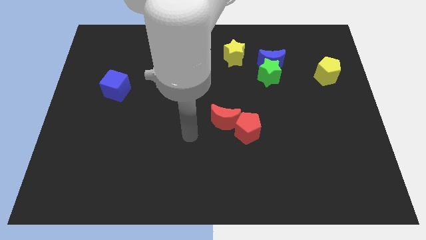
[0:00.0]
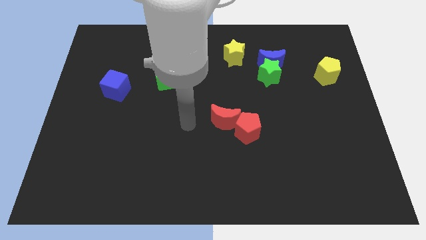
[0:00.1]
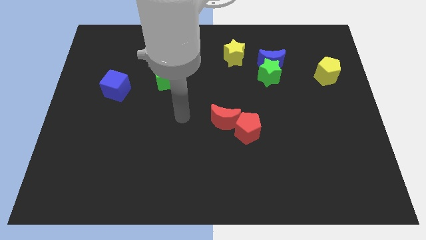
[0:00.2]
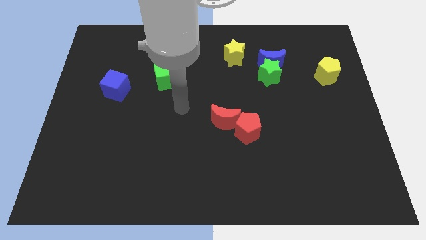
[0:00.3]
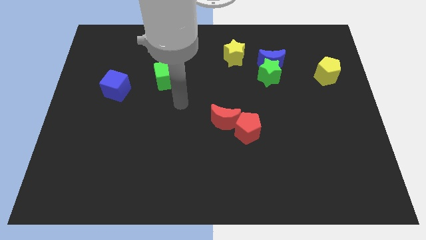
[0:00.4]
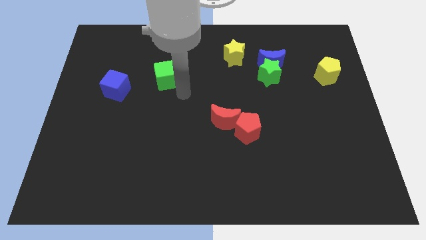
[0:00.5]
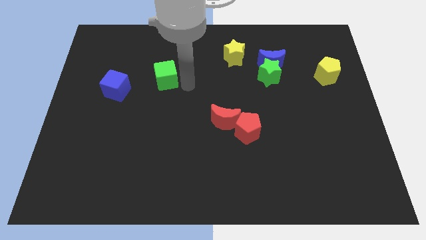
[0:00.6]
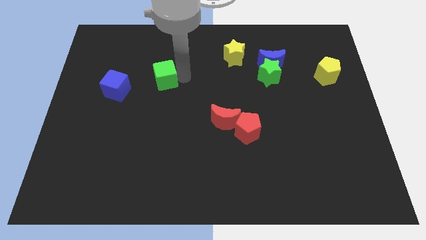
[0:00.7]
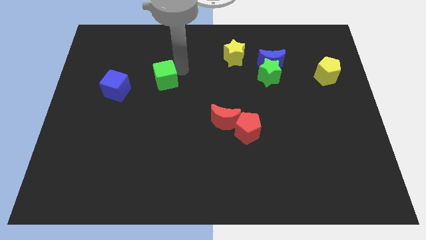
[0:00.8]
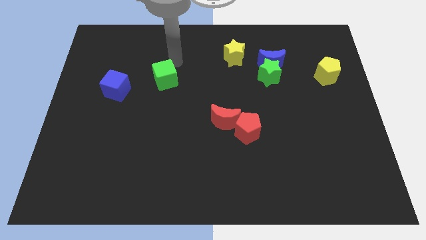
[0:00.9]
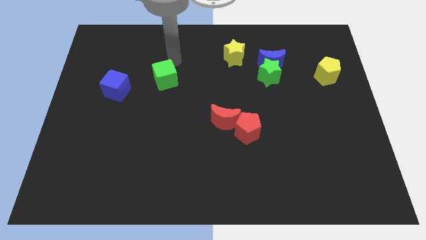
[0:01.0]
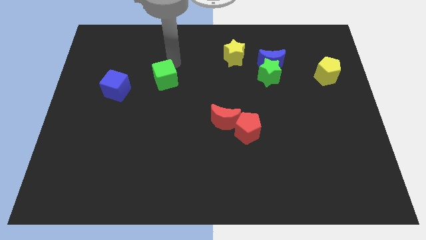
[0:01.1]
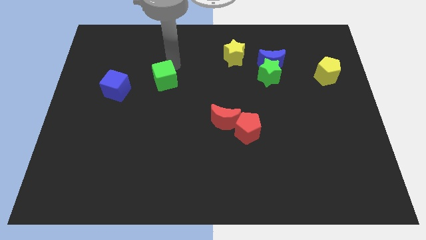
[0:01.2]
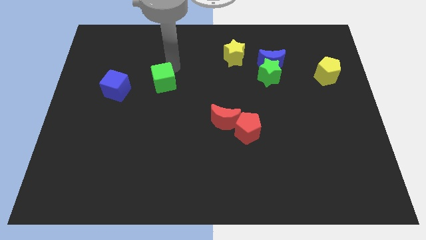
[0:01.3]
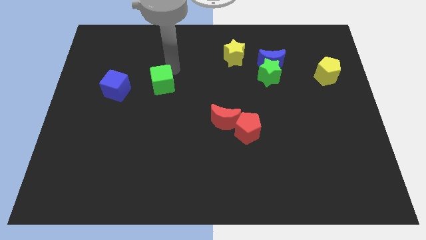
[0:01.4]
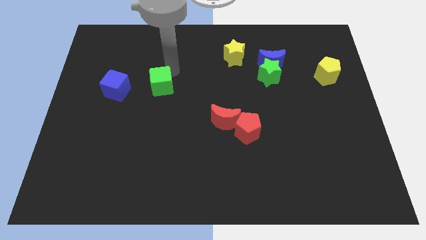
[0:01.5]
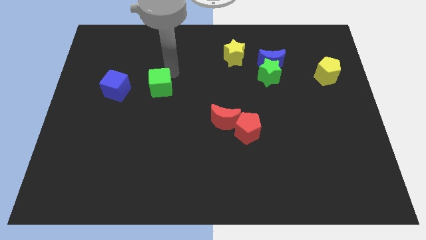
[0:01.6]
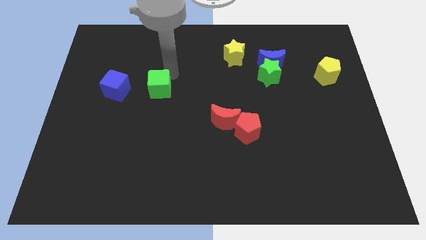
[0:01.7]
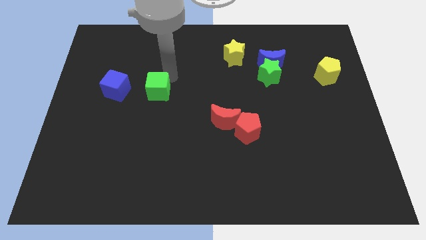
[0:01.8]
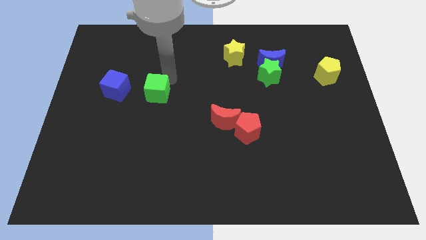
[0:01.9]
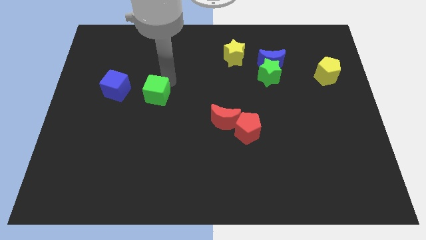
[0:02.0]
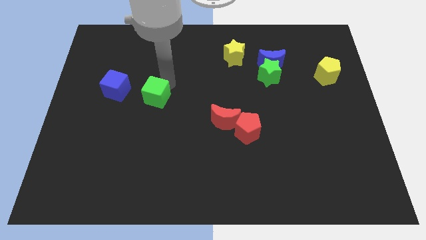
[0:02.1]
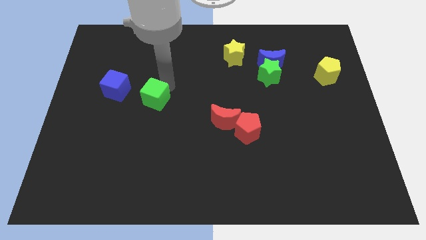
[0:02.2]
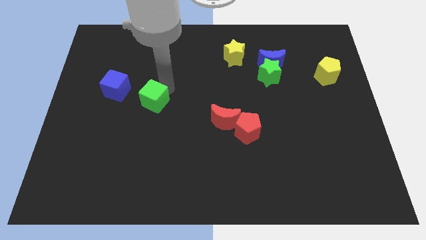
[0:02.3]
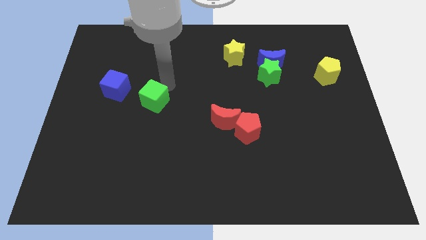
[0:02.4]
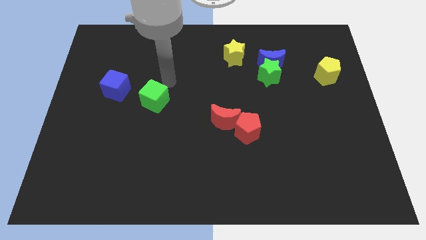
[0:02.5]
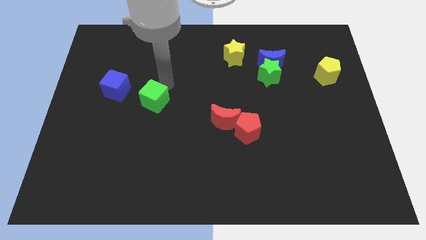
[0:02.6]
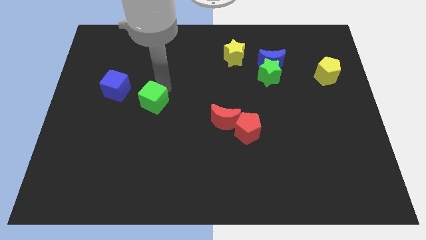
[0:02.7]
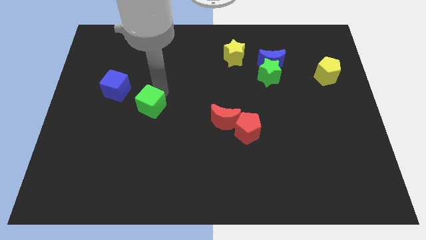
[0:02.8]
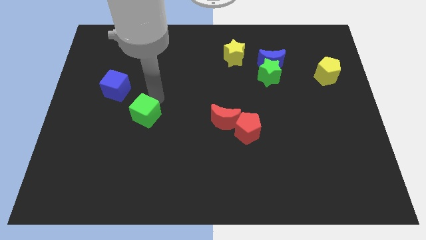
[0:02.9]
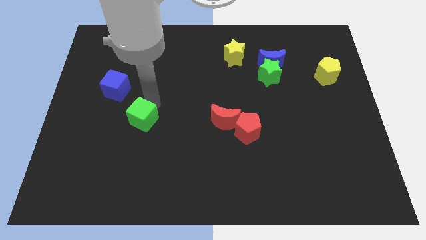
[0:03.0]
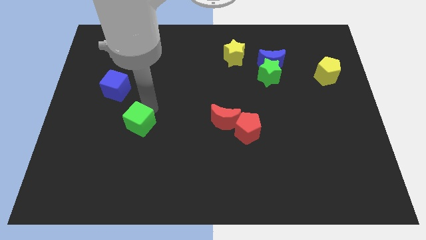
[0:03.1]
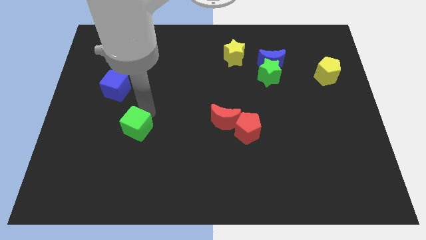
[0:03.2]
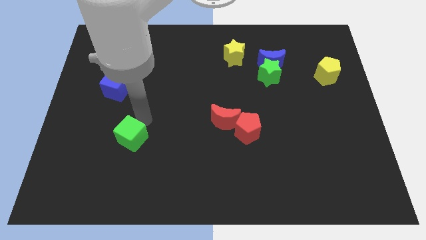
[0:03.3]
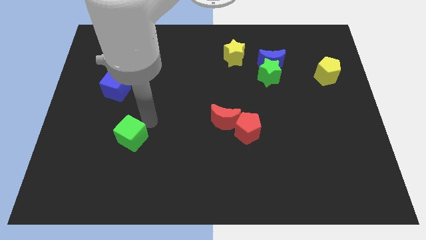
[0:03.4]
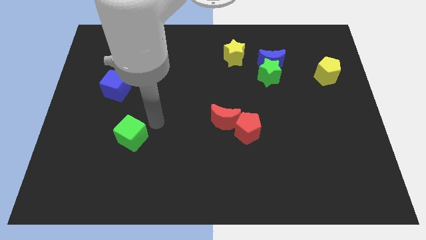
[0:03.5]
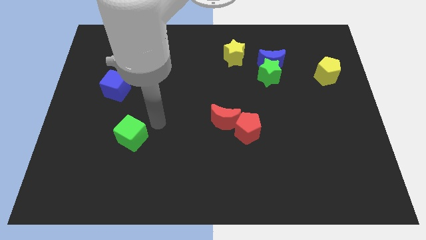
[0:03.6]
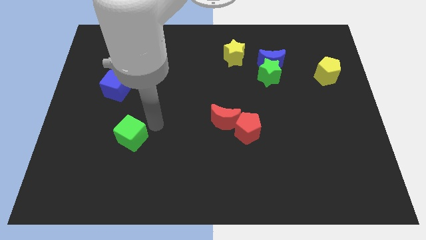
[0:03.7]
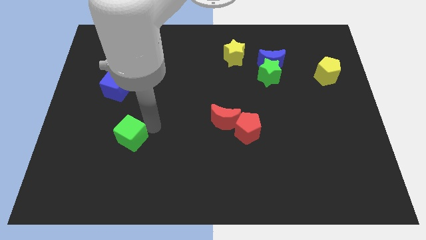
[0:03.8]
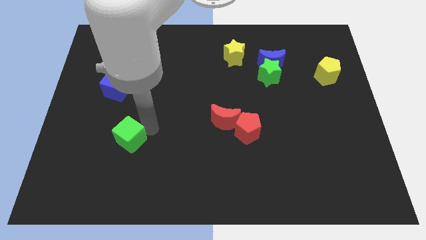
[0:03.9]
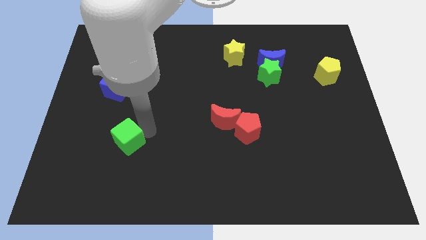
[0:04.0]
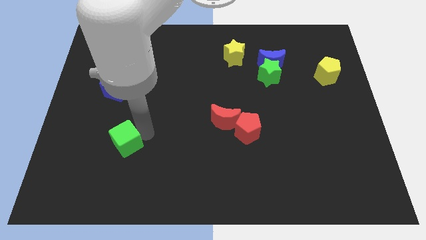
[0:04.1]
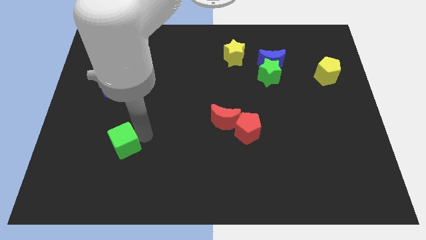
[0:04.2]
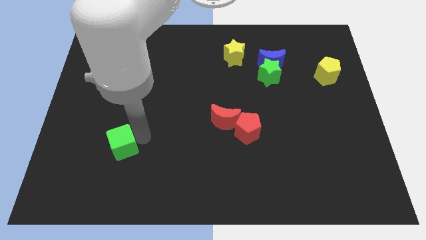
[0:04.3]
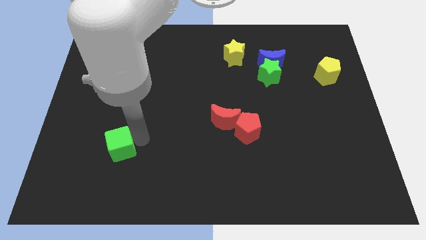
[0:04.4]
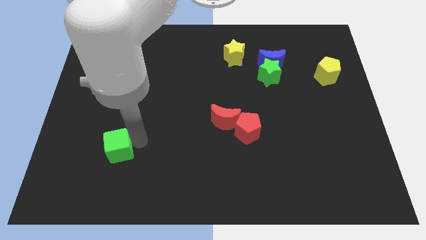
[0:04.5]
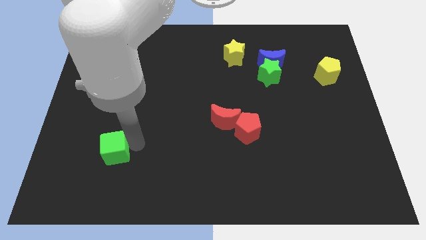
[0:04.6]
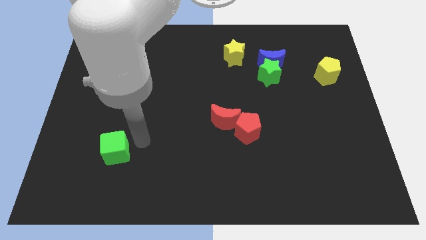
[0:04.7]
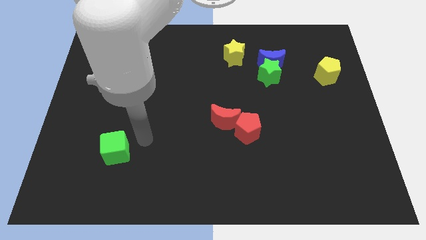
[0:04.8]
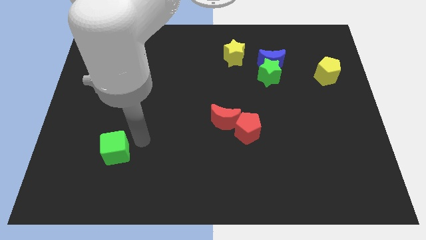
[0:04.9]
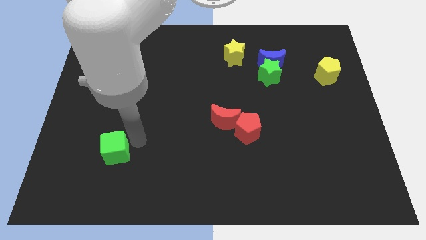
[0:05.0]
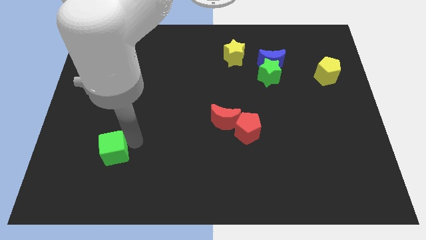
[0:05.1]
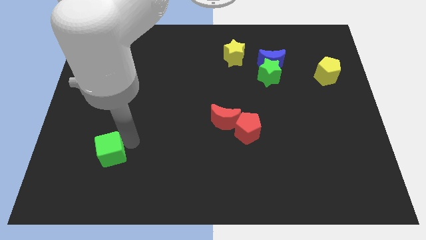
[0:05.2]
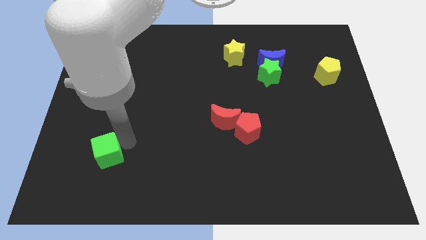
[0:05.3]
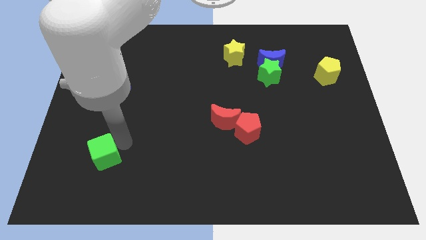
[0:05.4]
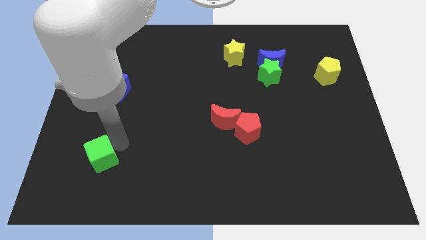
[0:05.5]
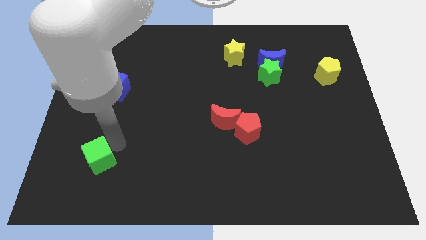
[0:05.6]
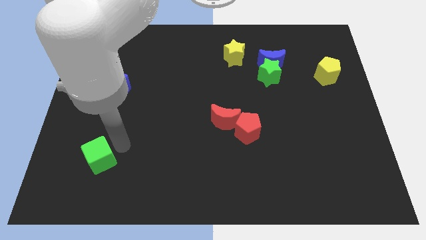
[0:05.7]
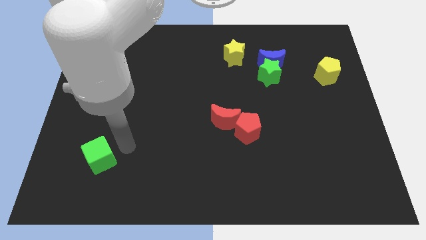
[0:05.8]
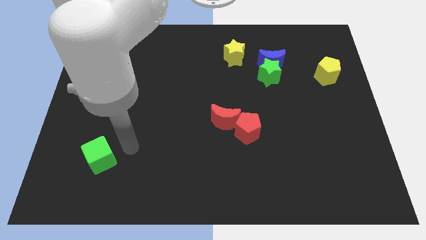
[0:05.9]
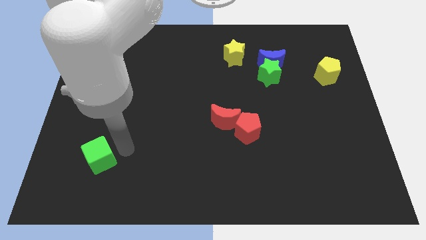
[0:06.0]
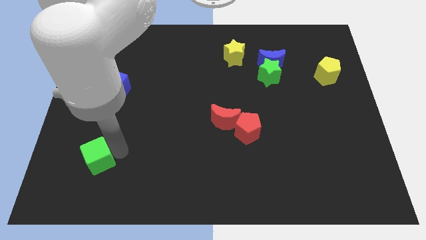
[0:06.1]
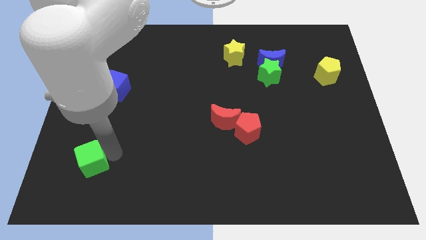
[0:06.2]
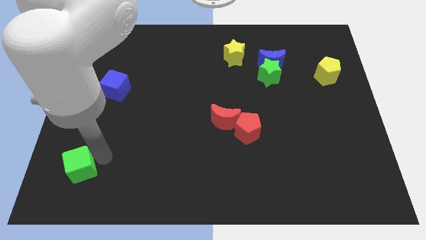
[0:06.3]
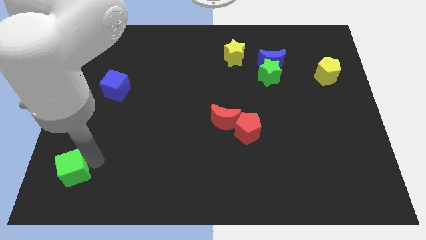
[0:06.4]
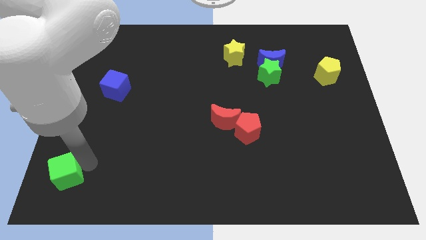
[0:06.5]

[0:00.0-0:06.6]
move the green cube to the bottom left corner

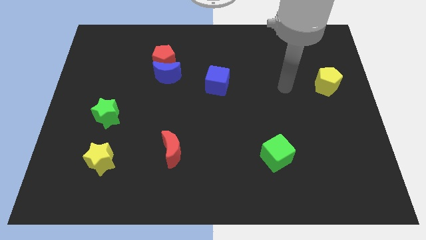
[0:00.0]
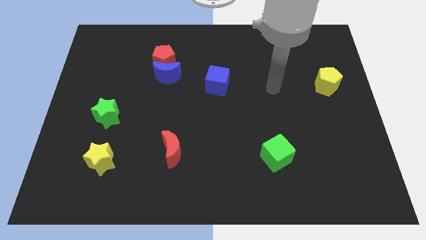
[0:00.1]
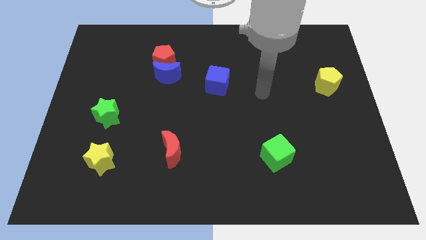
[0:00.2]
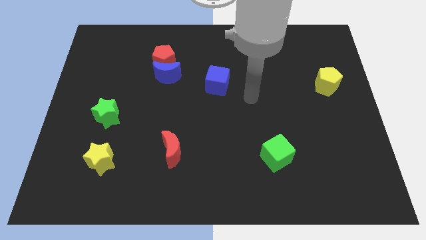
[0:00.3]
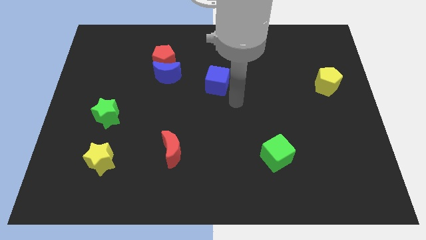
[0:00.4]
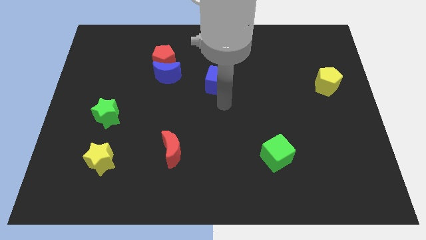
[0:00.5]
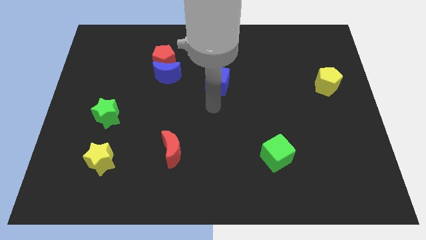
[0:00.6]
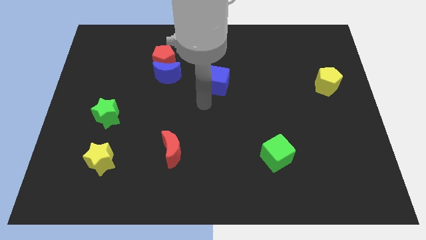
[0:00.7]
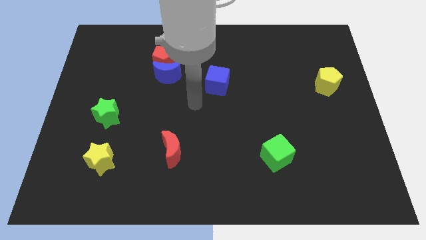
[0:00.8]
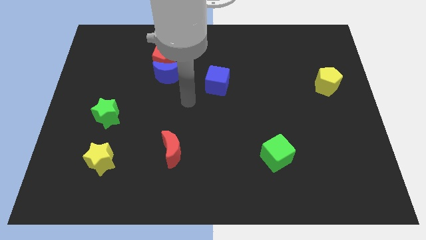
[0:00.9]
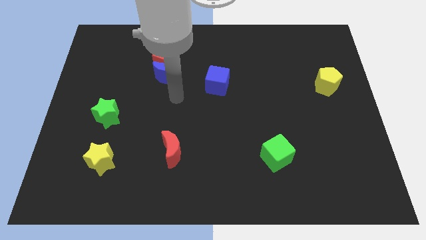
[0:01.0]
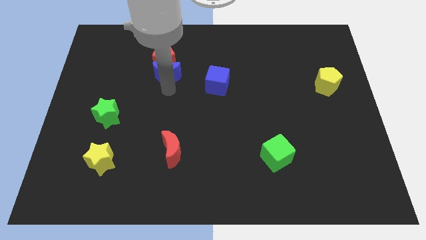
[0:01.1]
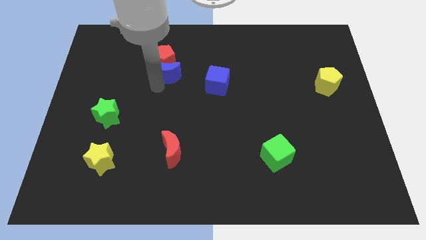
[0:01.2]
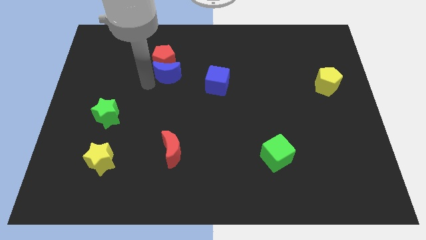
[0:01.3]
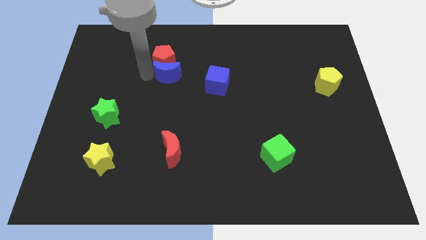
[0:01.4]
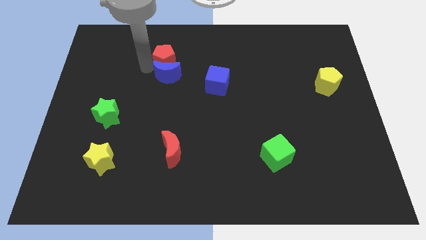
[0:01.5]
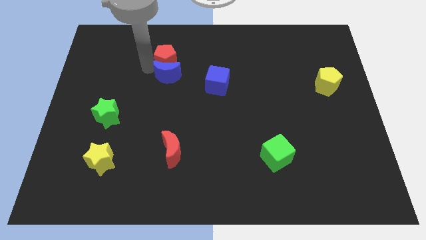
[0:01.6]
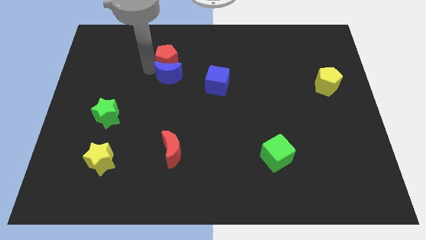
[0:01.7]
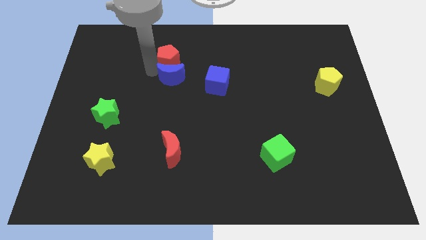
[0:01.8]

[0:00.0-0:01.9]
move the blue moon to the middle
